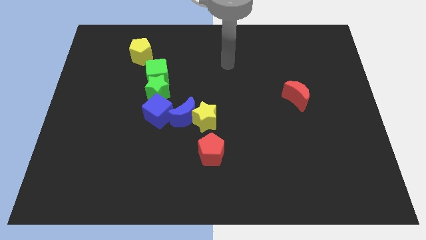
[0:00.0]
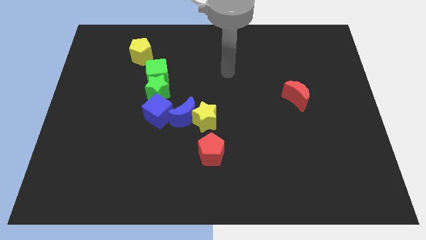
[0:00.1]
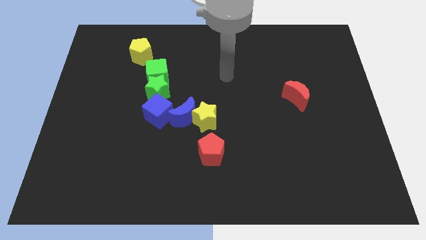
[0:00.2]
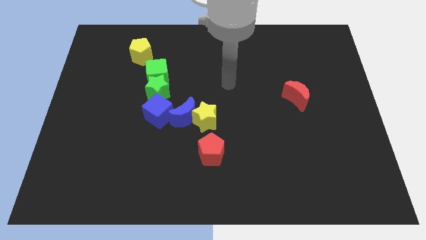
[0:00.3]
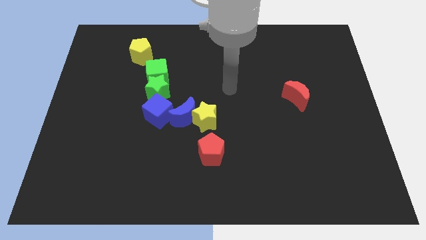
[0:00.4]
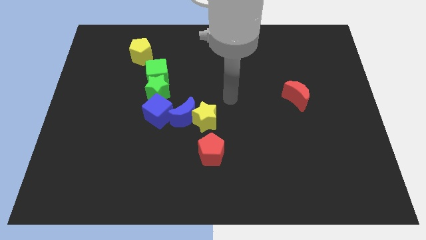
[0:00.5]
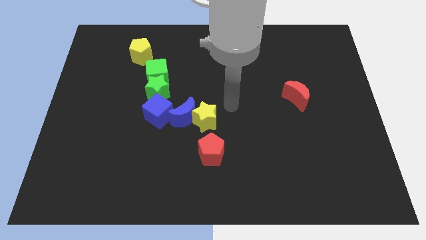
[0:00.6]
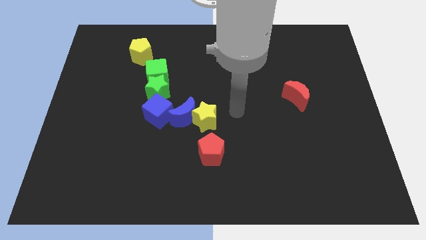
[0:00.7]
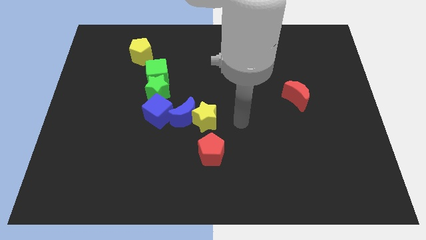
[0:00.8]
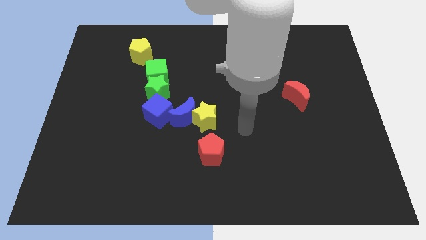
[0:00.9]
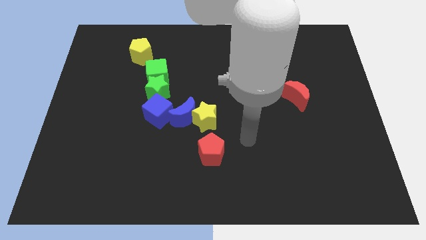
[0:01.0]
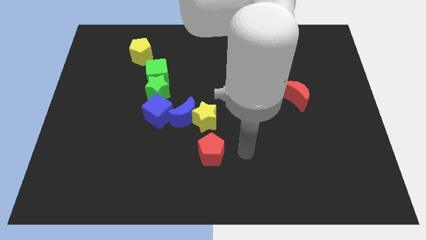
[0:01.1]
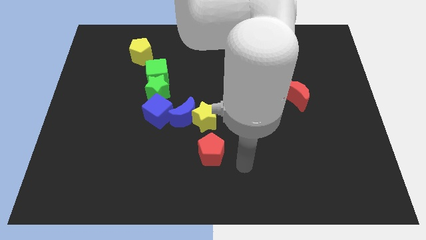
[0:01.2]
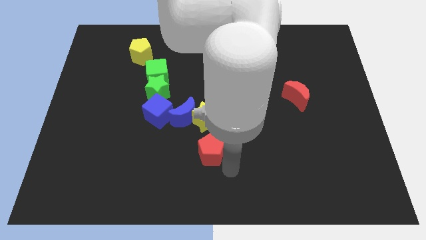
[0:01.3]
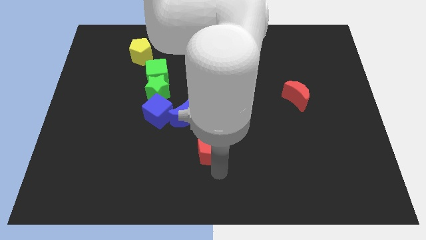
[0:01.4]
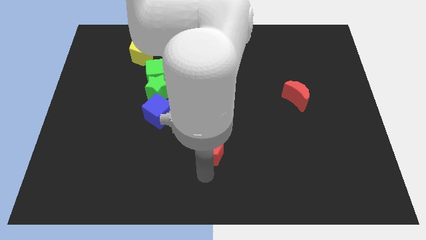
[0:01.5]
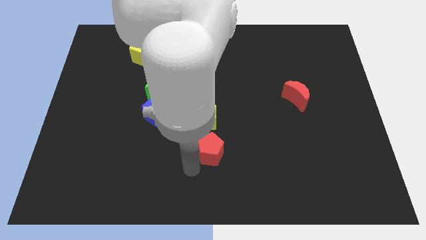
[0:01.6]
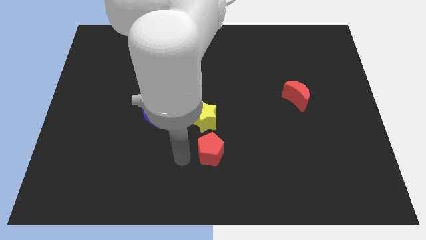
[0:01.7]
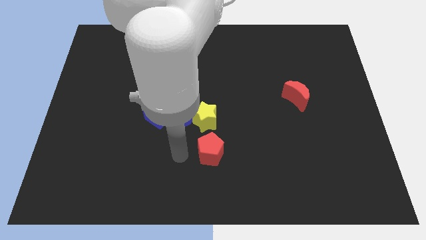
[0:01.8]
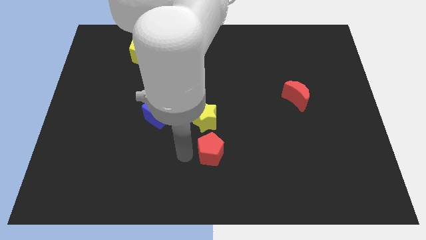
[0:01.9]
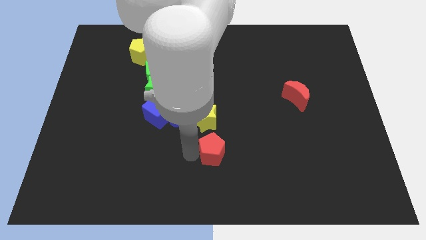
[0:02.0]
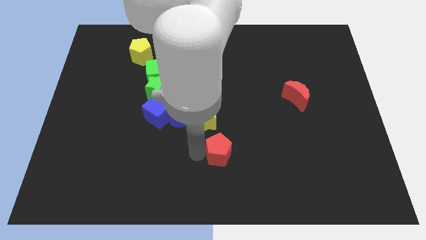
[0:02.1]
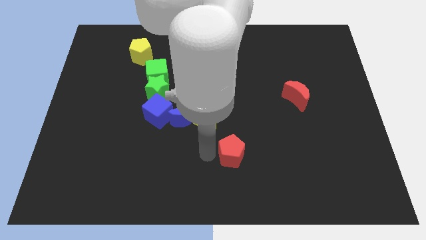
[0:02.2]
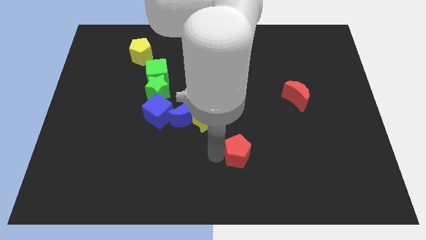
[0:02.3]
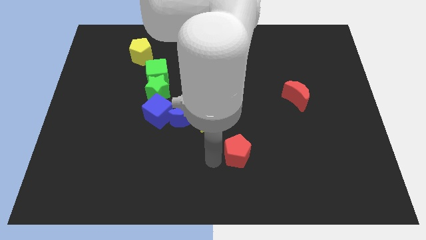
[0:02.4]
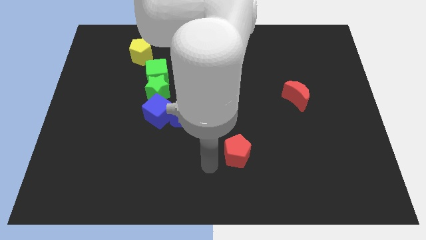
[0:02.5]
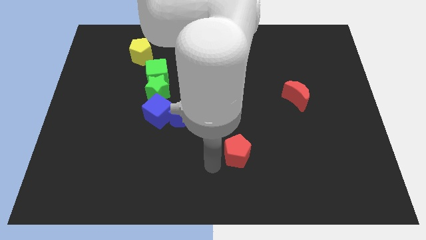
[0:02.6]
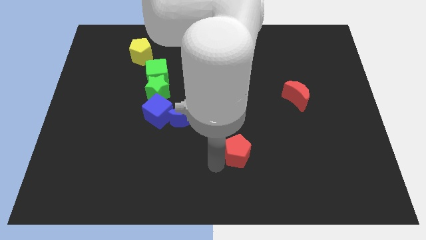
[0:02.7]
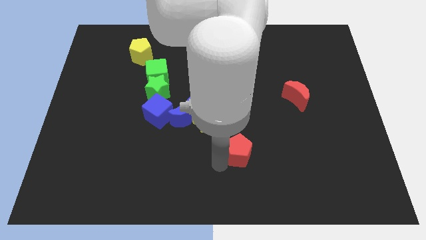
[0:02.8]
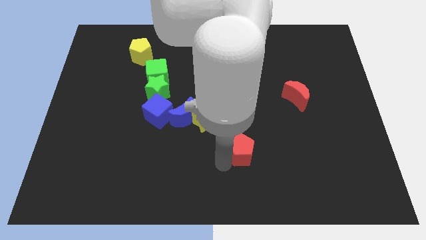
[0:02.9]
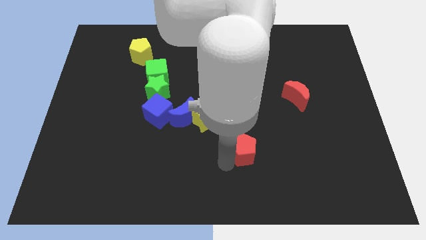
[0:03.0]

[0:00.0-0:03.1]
slightly push the red pentagon right

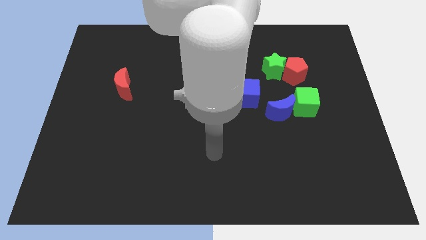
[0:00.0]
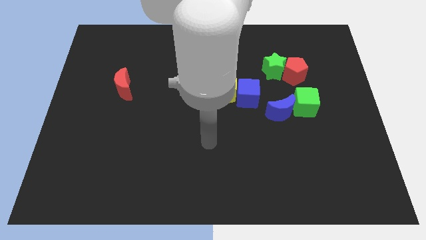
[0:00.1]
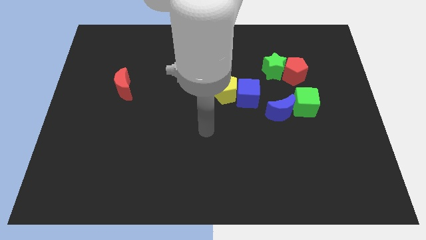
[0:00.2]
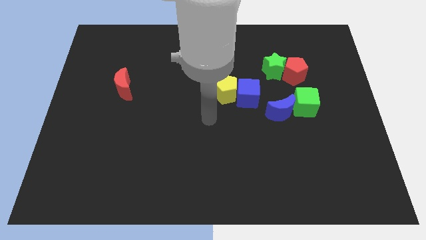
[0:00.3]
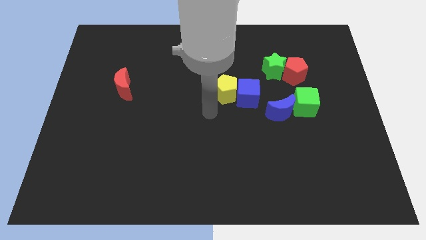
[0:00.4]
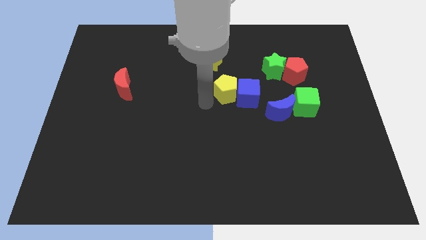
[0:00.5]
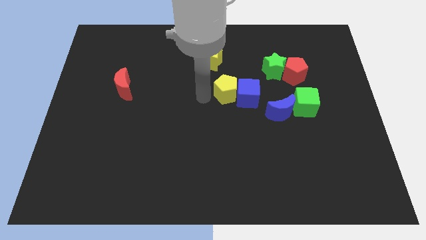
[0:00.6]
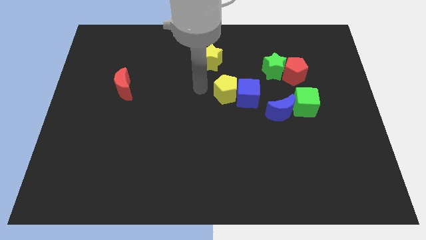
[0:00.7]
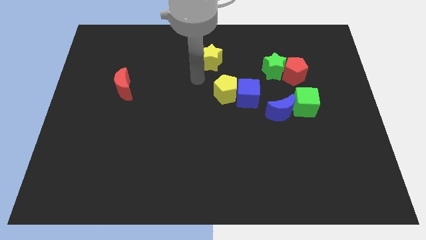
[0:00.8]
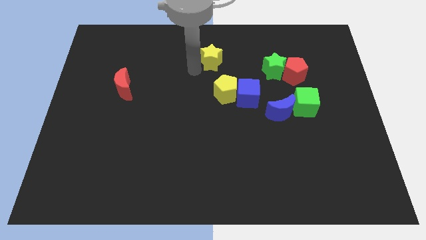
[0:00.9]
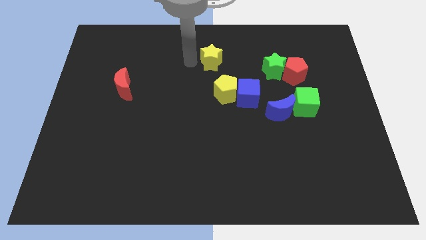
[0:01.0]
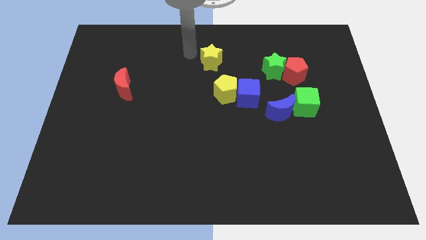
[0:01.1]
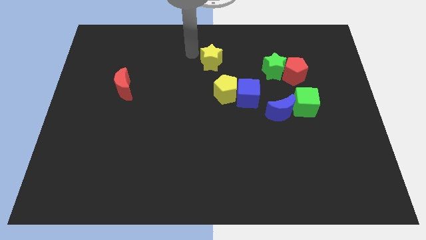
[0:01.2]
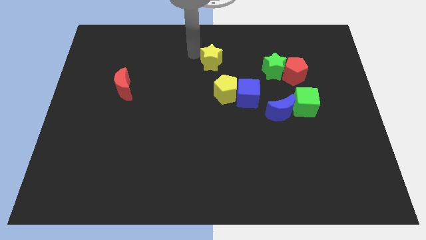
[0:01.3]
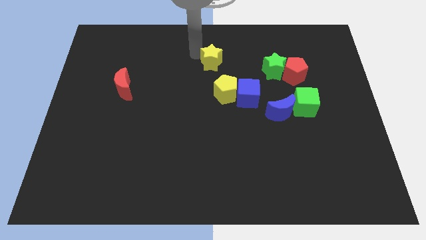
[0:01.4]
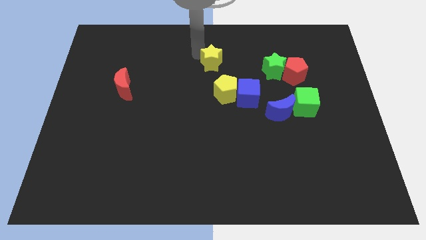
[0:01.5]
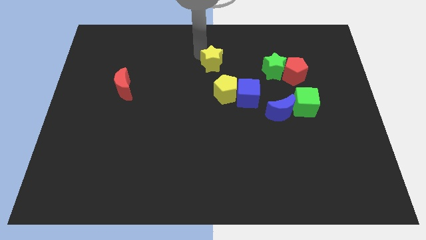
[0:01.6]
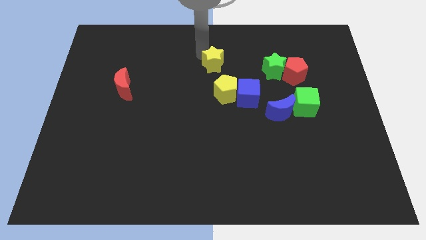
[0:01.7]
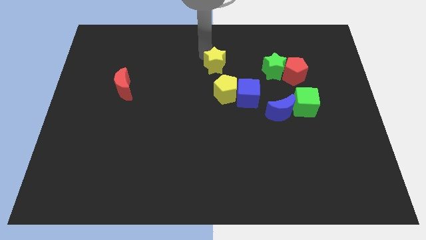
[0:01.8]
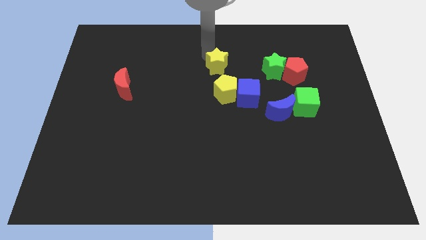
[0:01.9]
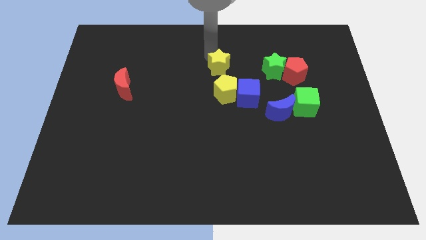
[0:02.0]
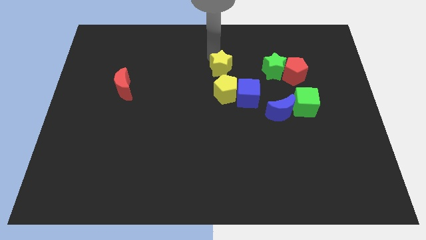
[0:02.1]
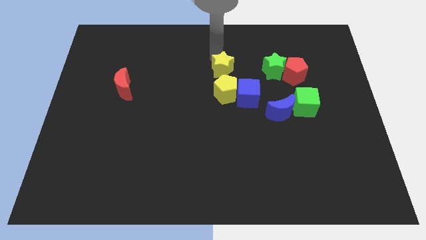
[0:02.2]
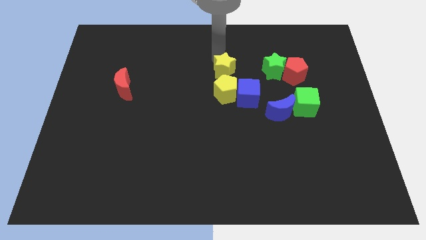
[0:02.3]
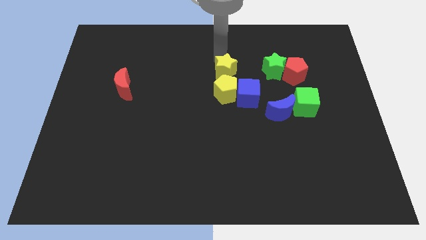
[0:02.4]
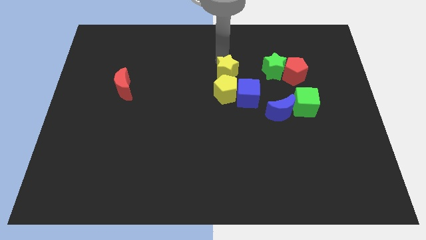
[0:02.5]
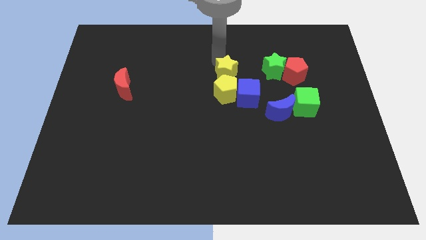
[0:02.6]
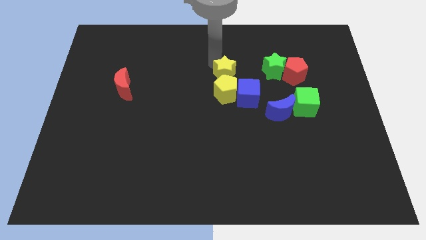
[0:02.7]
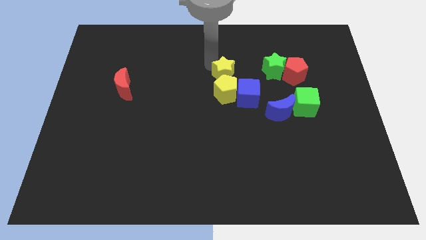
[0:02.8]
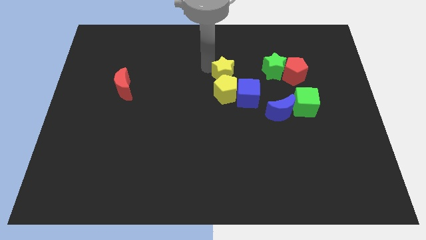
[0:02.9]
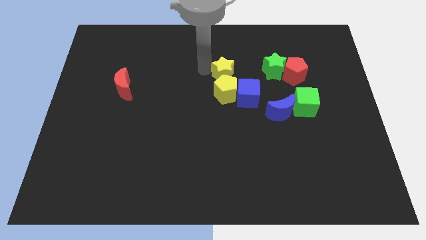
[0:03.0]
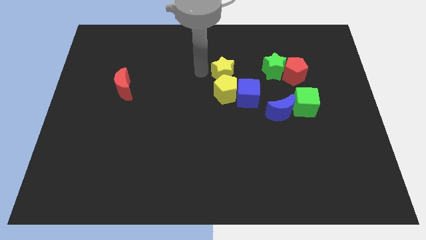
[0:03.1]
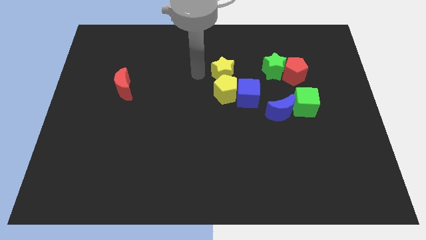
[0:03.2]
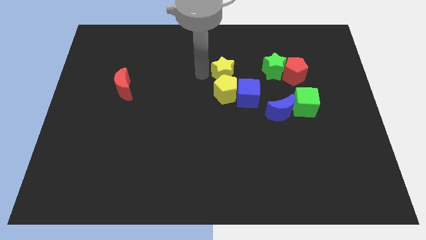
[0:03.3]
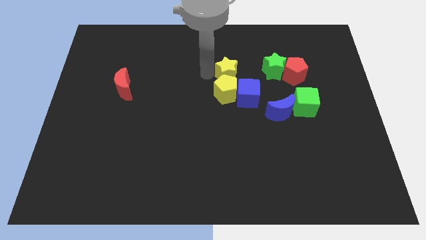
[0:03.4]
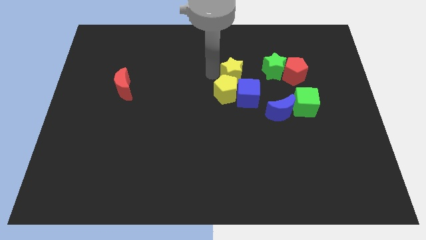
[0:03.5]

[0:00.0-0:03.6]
slide the yellow star a little down and then to the right

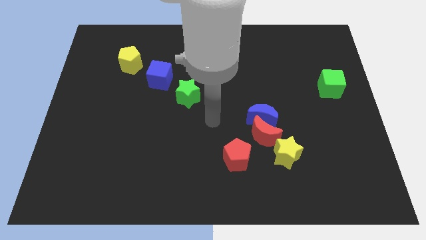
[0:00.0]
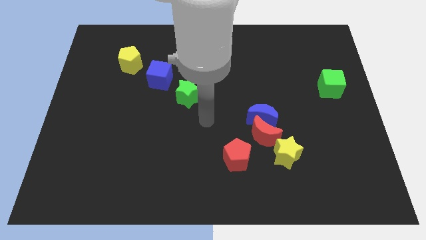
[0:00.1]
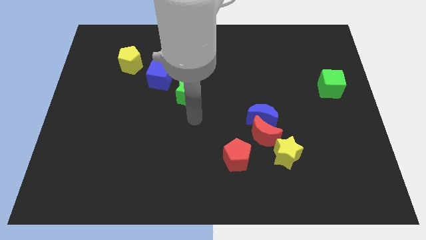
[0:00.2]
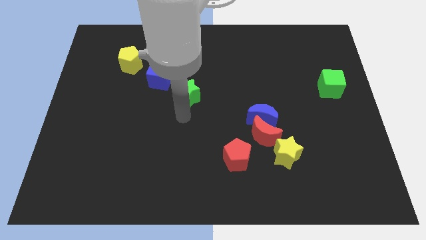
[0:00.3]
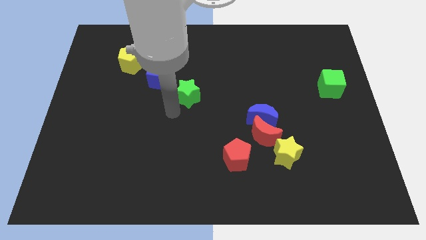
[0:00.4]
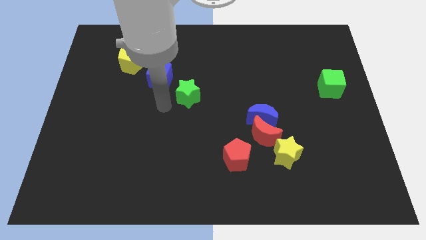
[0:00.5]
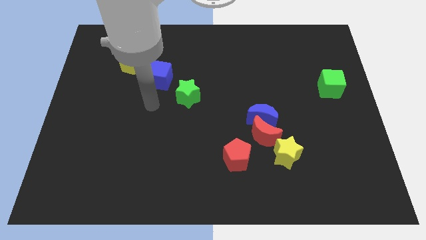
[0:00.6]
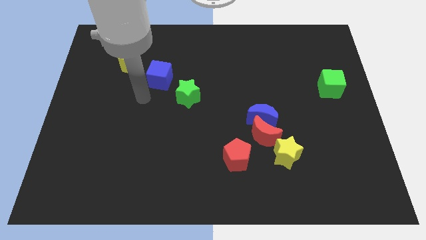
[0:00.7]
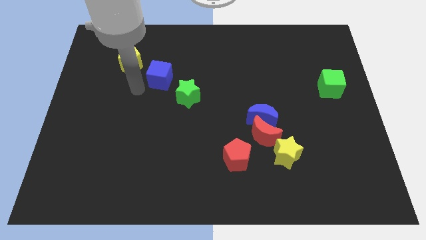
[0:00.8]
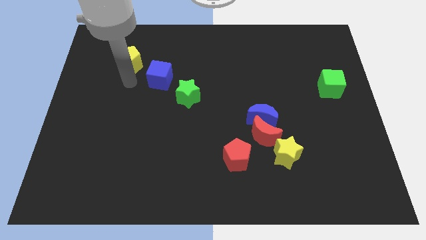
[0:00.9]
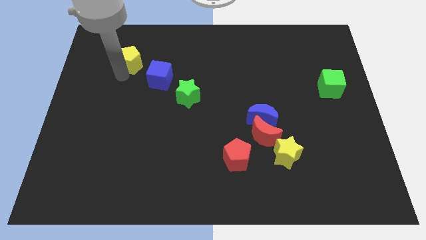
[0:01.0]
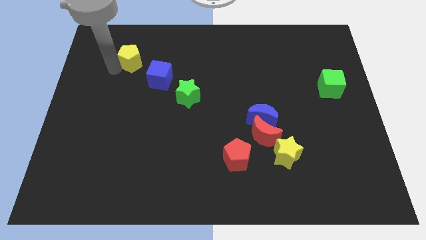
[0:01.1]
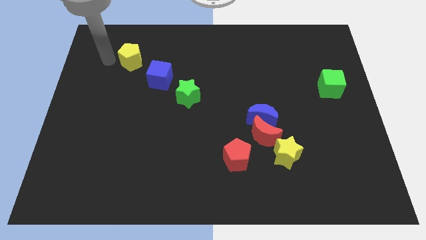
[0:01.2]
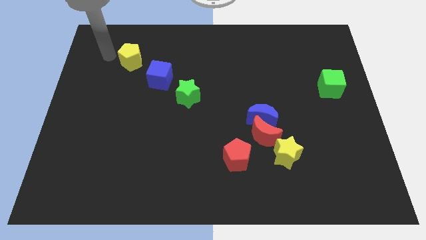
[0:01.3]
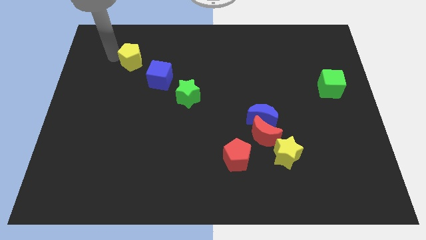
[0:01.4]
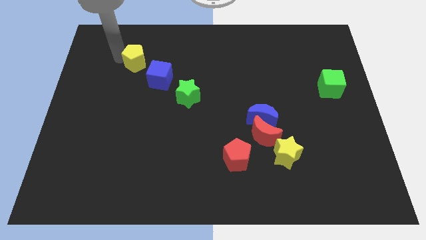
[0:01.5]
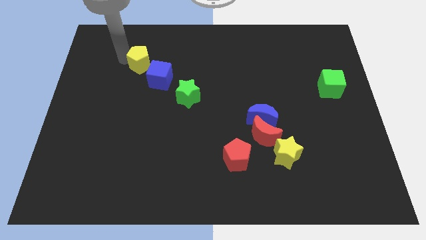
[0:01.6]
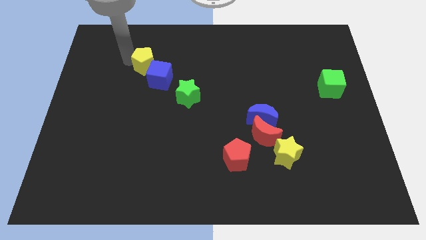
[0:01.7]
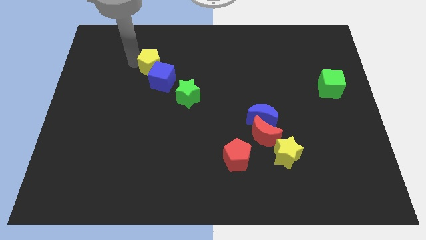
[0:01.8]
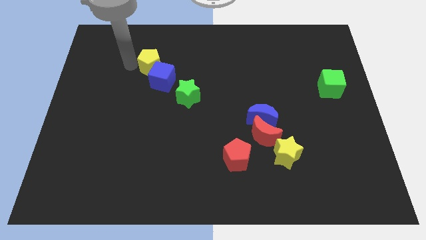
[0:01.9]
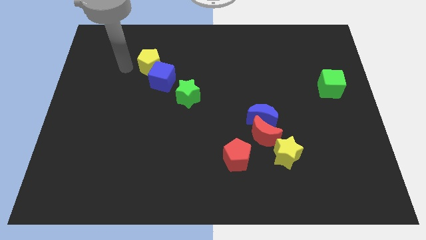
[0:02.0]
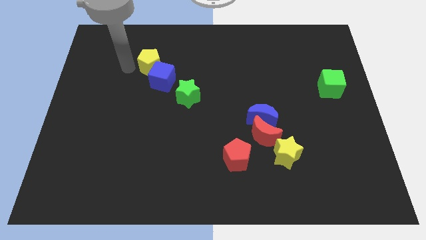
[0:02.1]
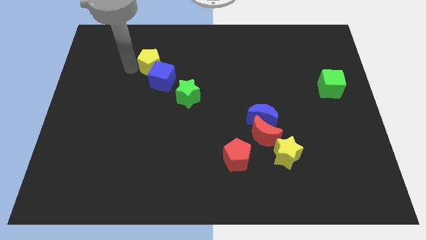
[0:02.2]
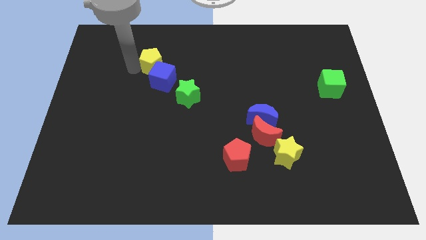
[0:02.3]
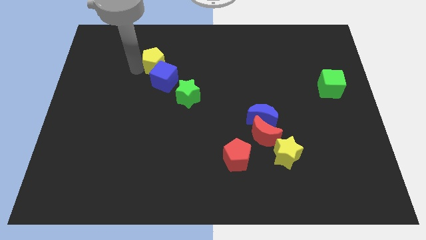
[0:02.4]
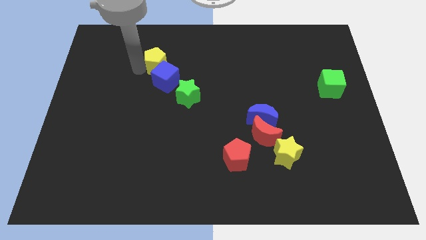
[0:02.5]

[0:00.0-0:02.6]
slightly slide the yellow pentagon right
